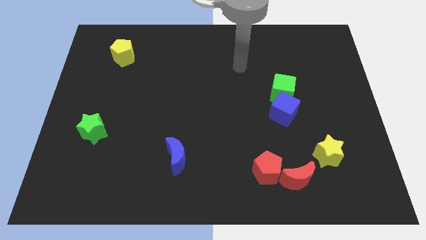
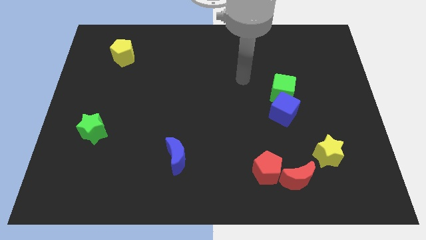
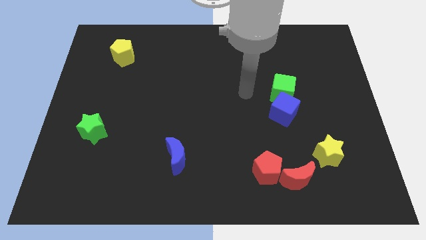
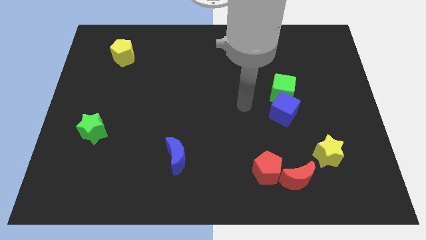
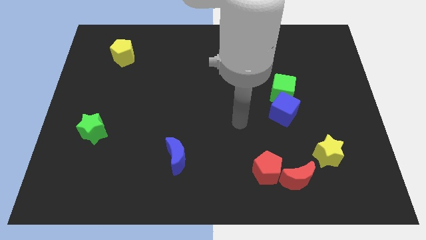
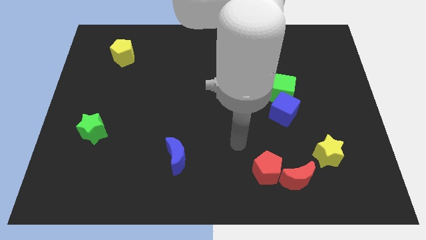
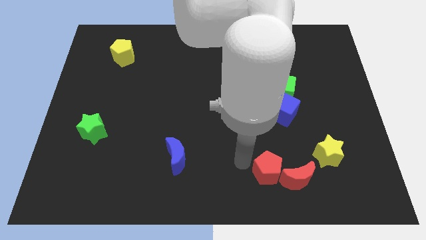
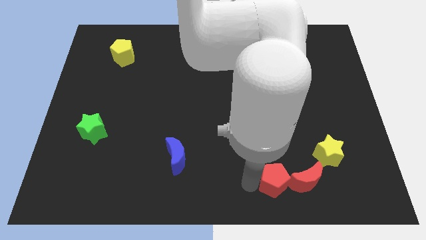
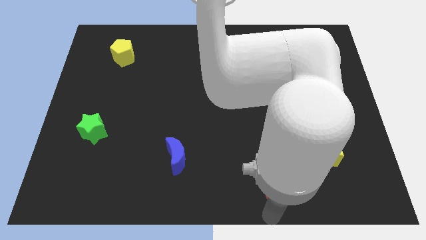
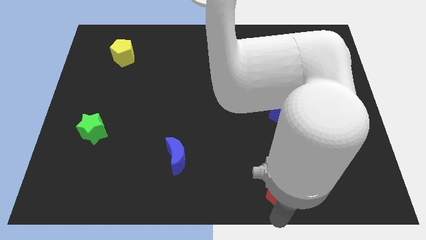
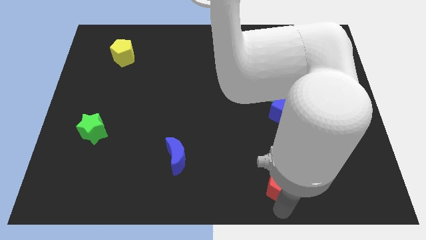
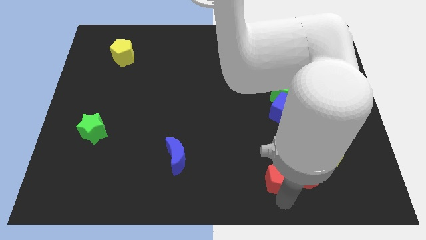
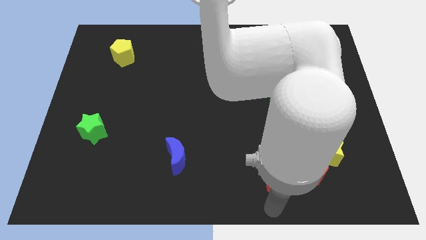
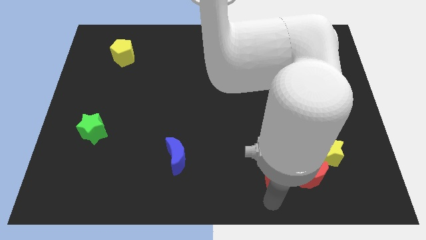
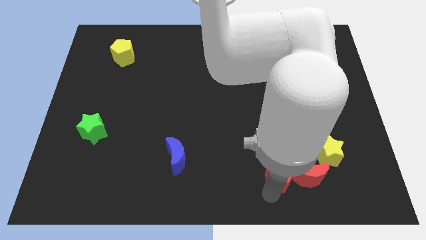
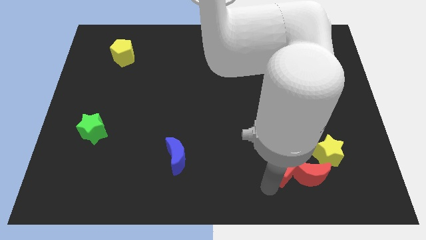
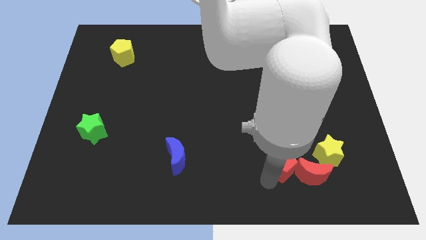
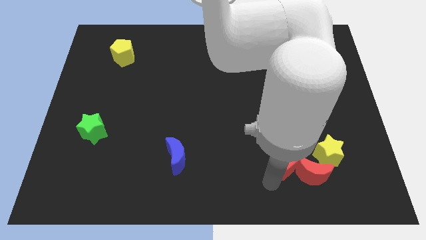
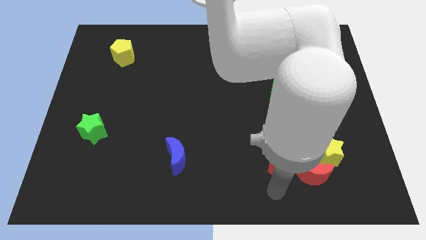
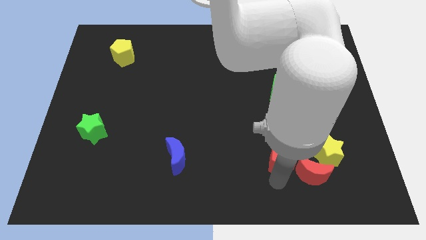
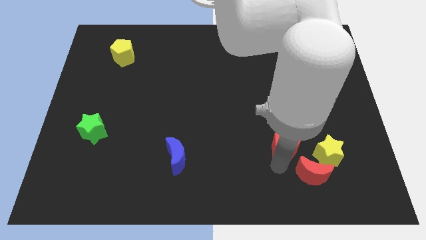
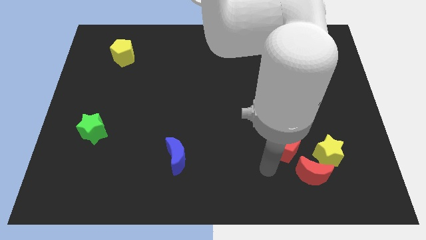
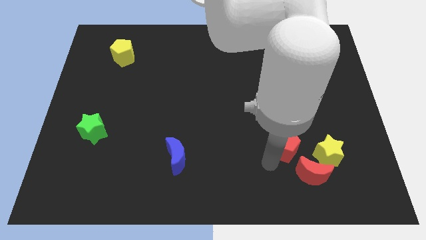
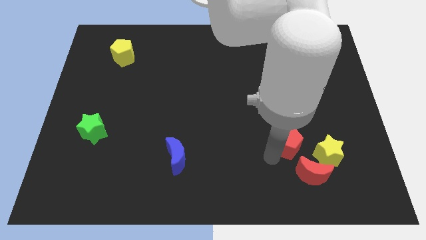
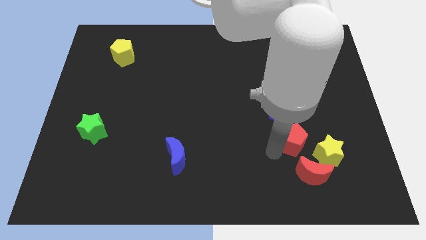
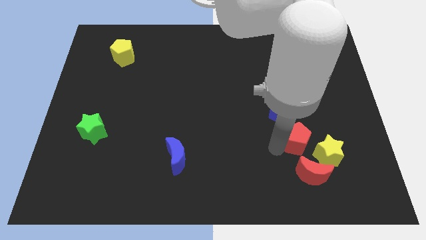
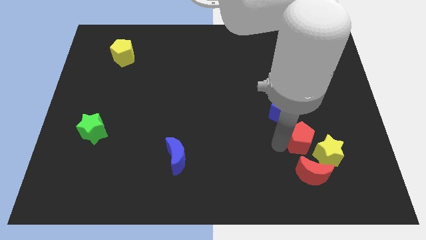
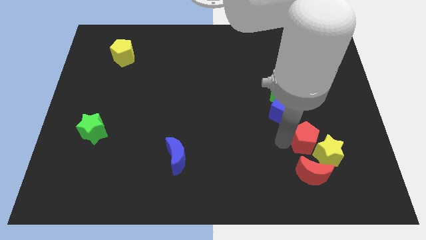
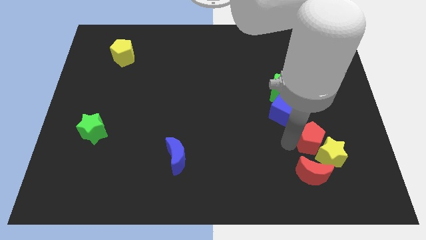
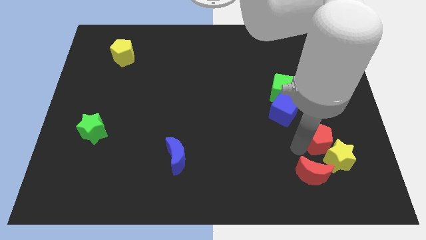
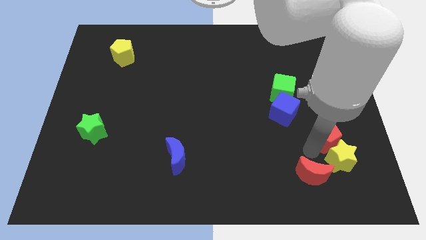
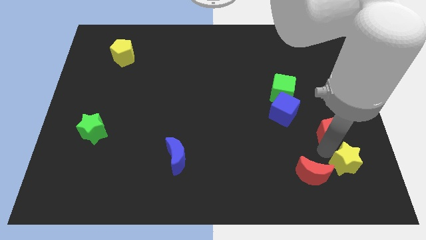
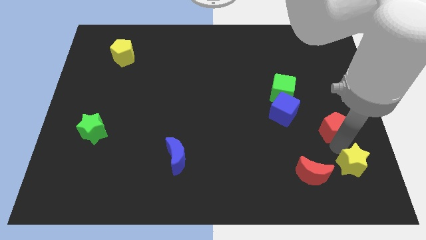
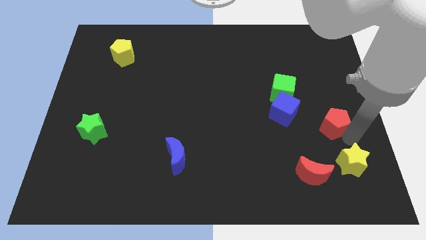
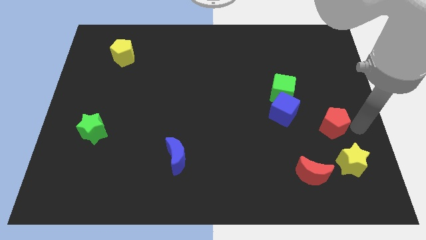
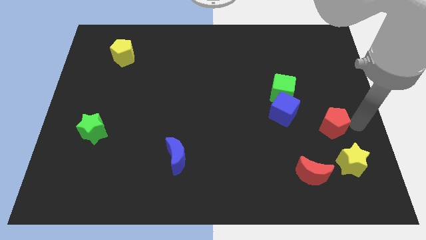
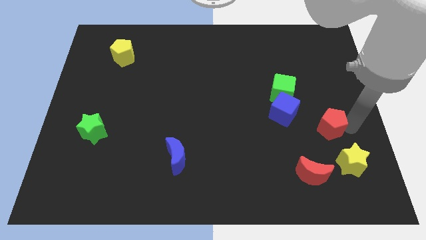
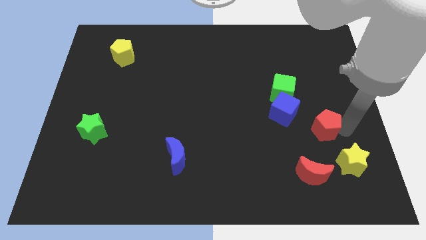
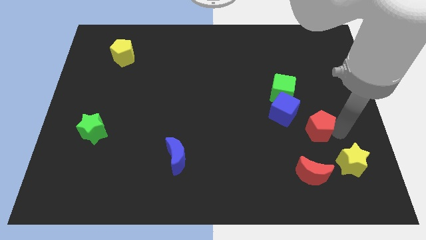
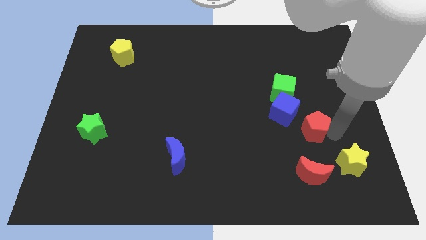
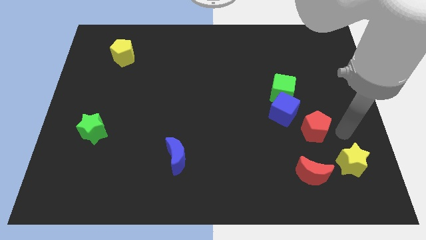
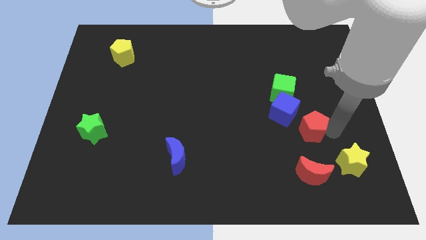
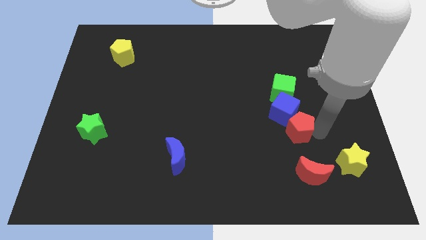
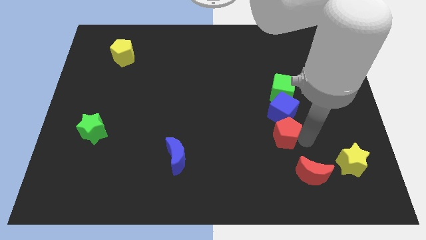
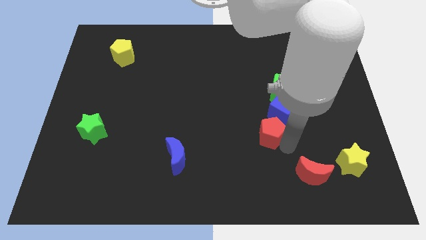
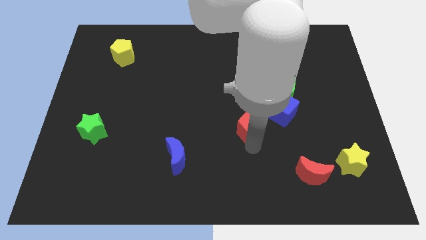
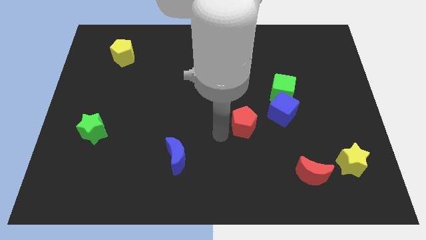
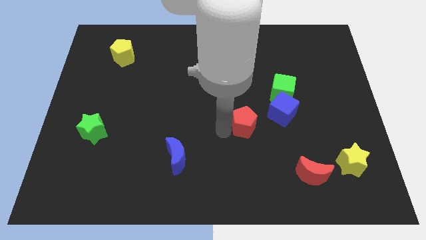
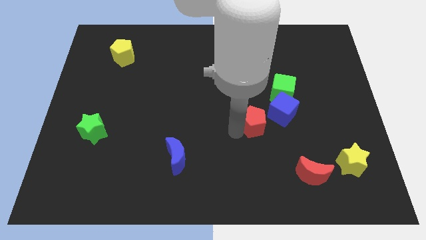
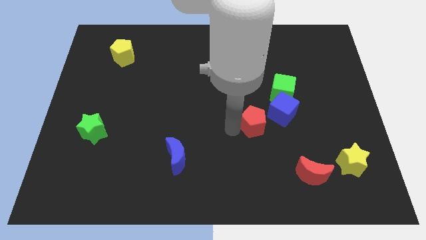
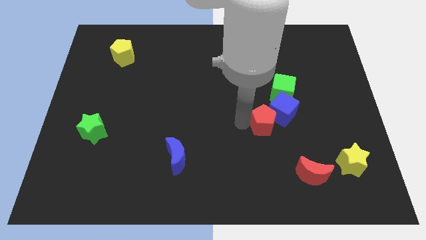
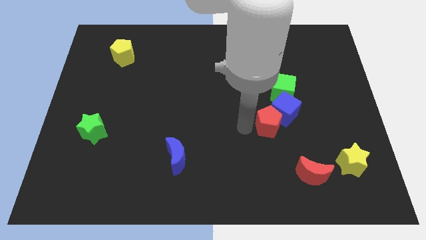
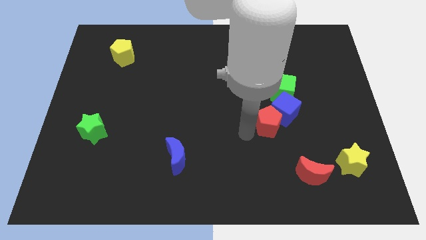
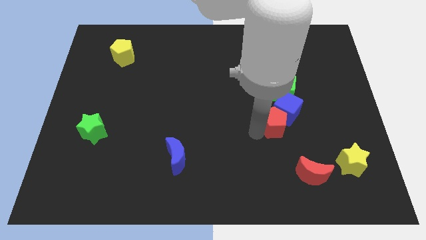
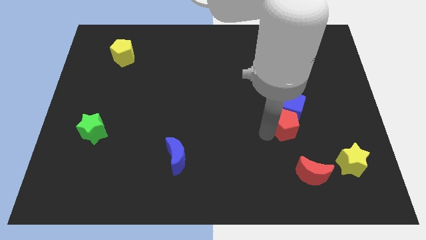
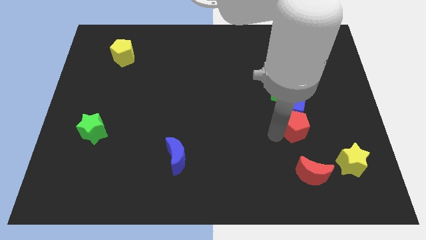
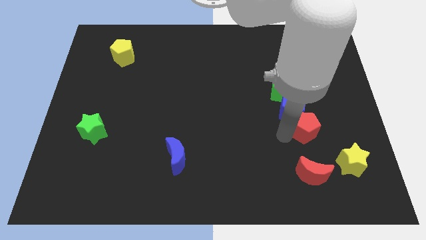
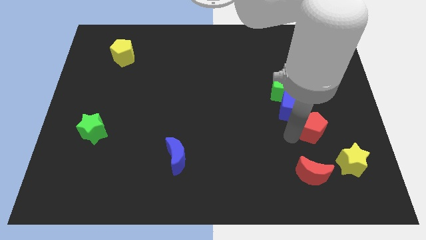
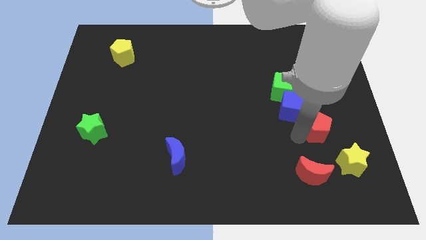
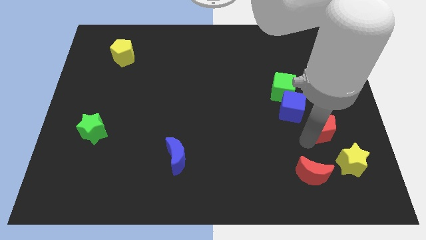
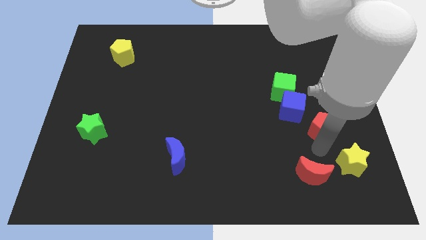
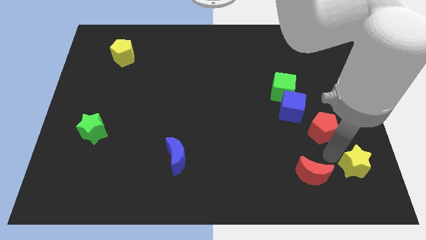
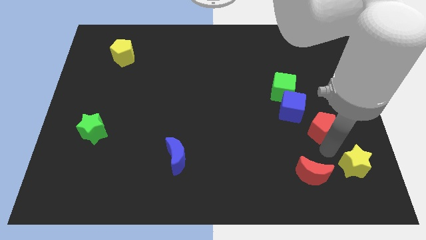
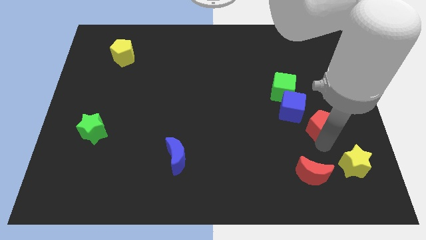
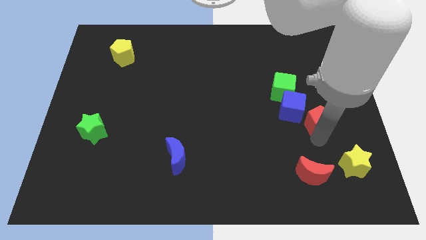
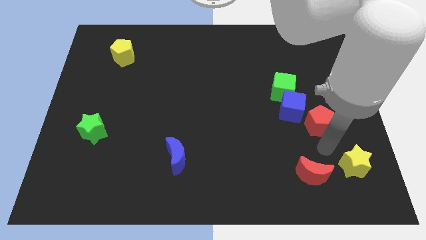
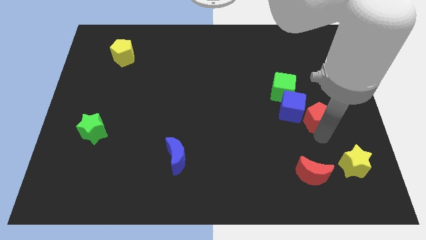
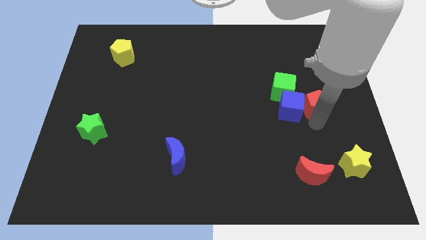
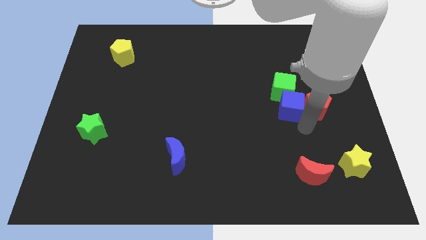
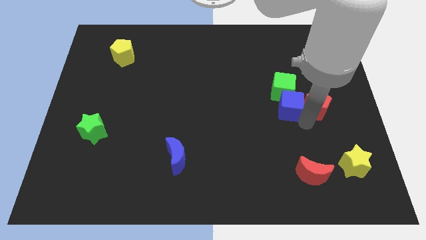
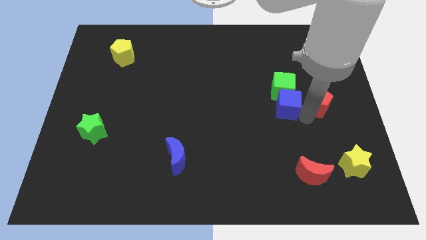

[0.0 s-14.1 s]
put the red pentagon just right of the green cube
